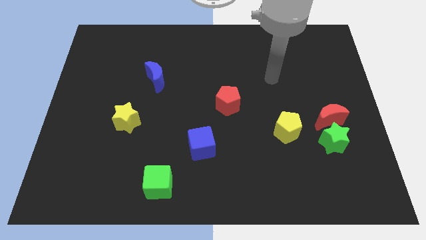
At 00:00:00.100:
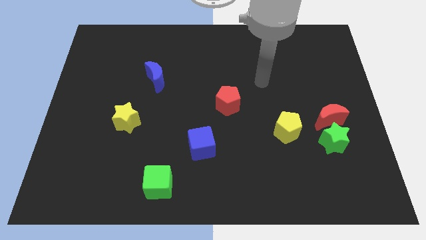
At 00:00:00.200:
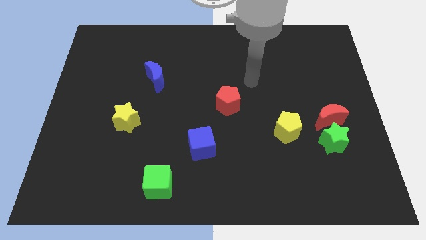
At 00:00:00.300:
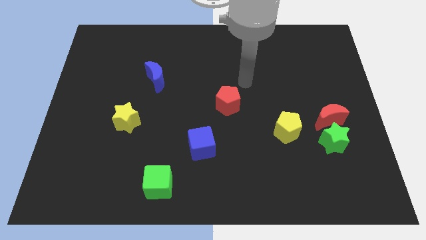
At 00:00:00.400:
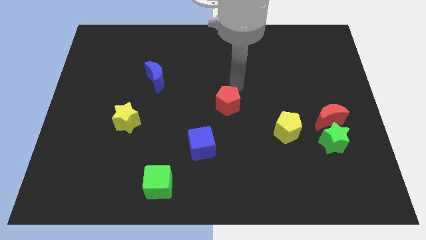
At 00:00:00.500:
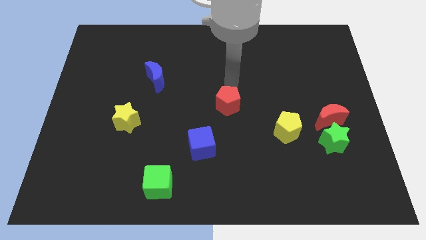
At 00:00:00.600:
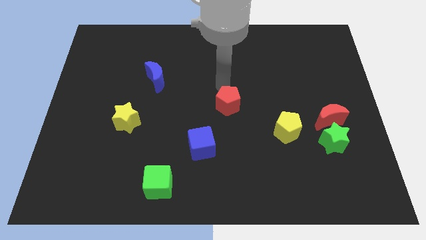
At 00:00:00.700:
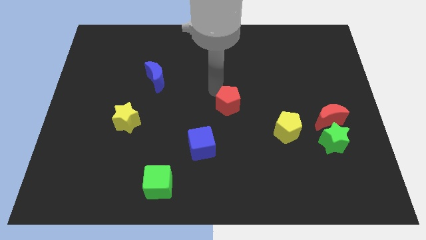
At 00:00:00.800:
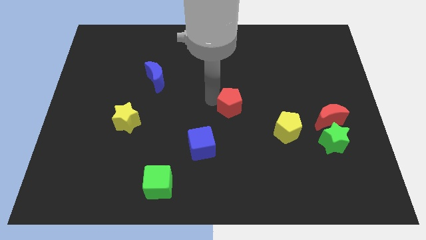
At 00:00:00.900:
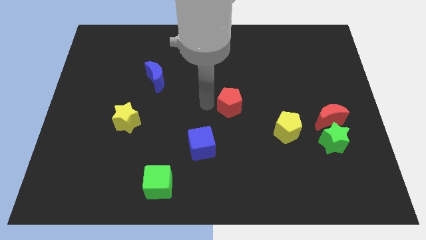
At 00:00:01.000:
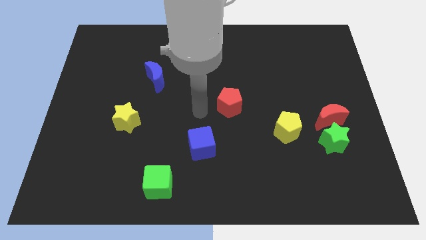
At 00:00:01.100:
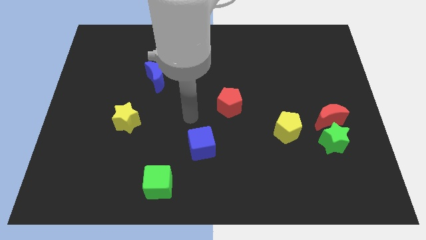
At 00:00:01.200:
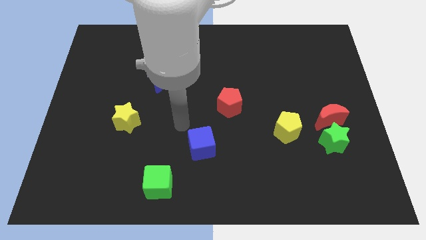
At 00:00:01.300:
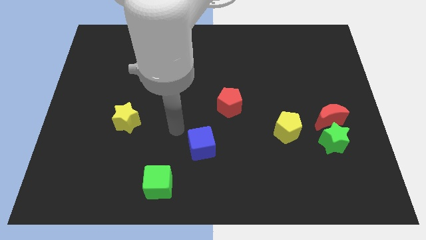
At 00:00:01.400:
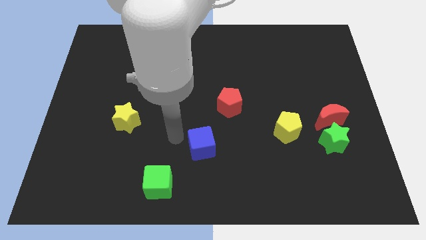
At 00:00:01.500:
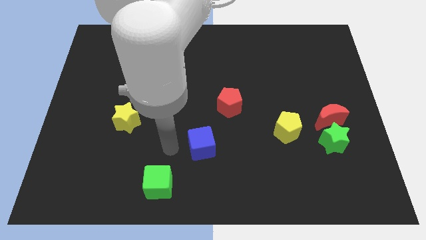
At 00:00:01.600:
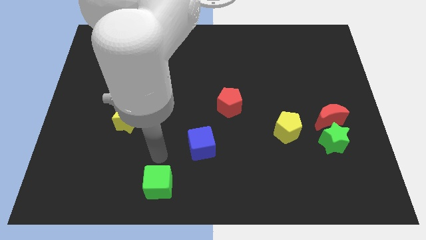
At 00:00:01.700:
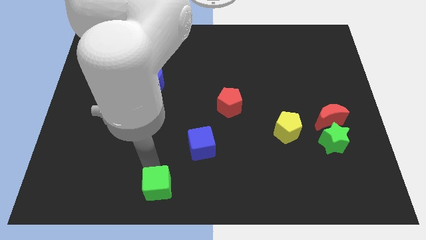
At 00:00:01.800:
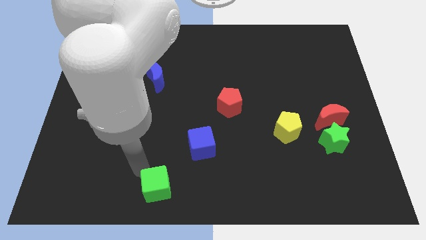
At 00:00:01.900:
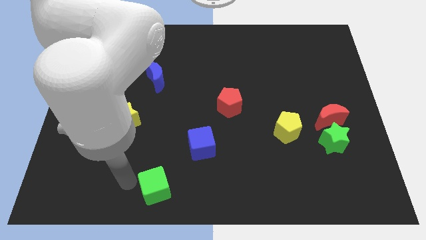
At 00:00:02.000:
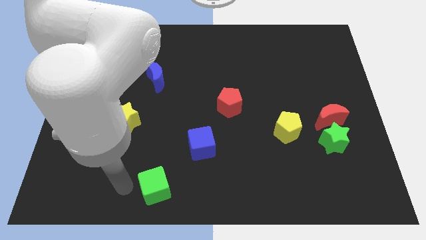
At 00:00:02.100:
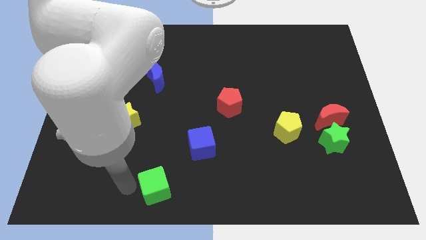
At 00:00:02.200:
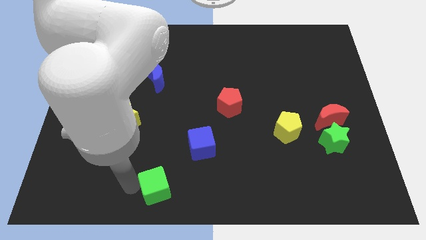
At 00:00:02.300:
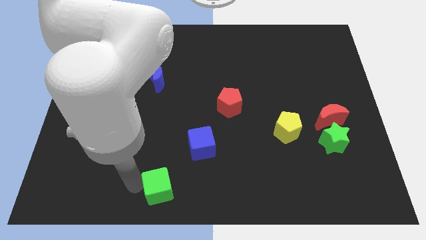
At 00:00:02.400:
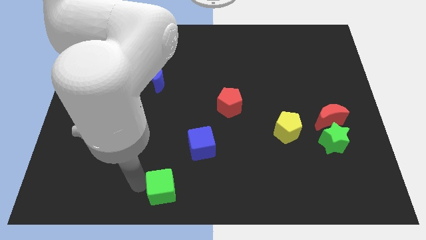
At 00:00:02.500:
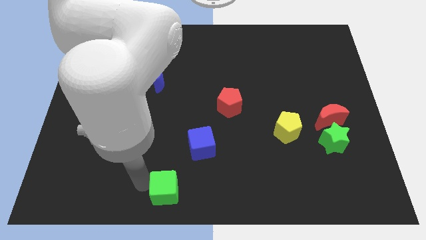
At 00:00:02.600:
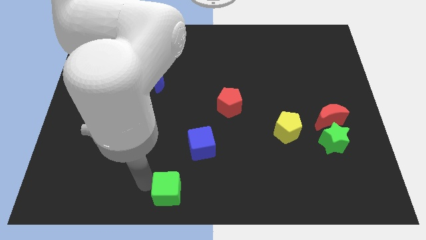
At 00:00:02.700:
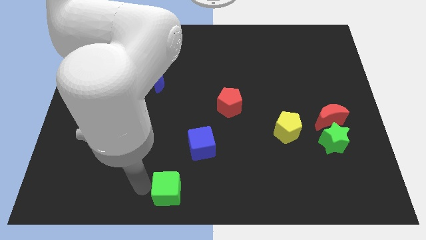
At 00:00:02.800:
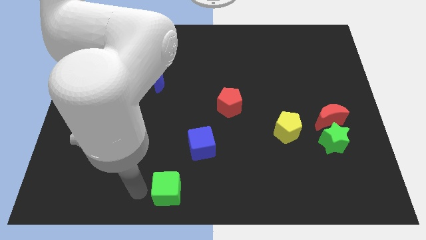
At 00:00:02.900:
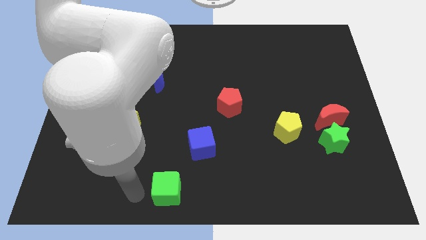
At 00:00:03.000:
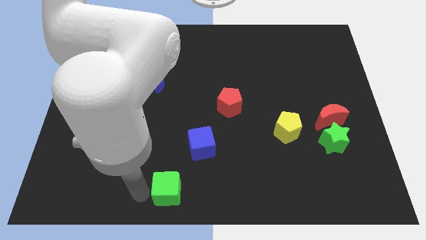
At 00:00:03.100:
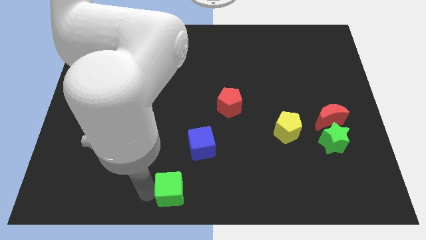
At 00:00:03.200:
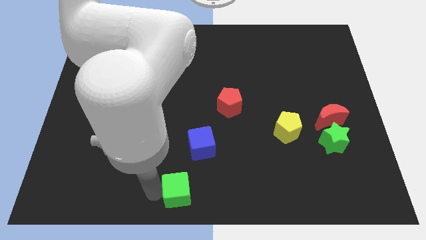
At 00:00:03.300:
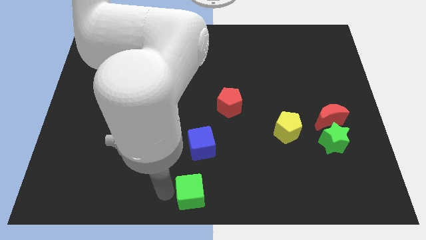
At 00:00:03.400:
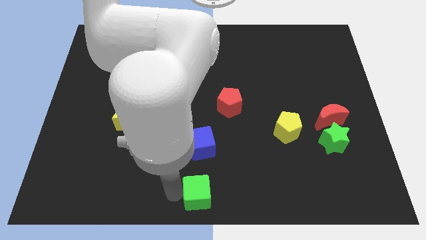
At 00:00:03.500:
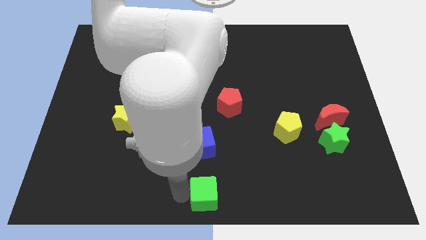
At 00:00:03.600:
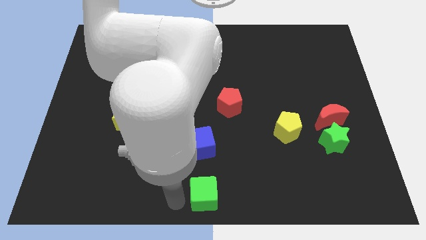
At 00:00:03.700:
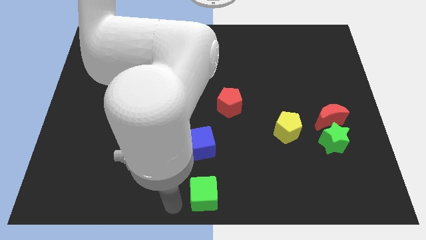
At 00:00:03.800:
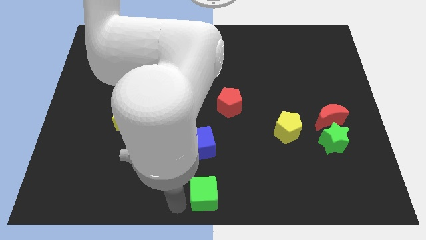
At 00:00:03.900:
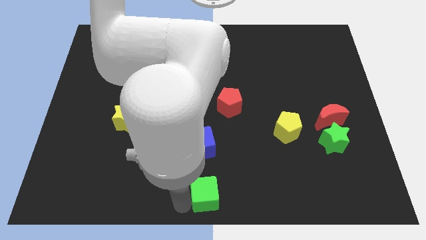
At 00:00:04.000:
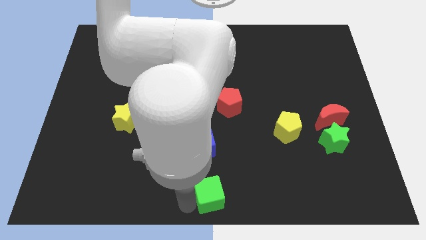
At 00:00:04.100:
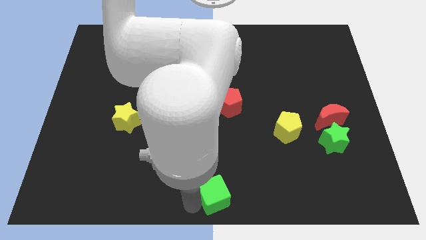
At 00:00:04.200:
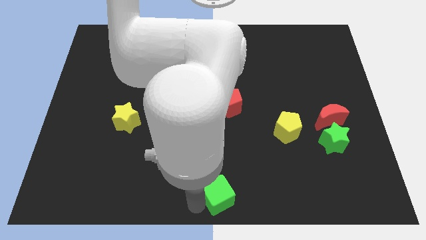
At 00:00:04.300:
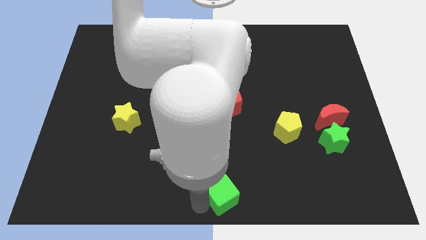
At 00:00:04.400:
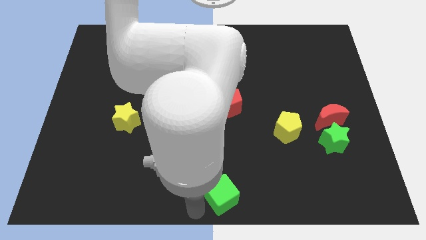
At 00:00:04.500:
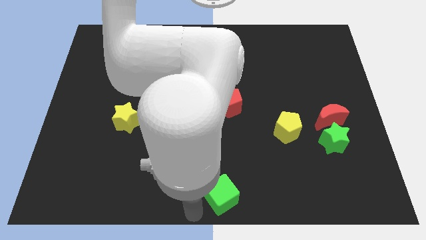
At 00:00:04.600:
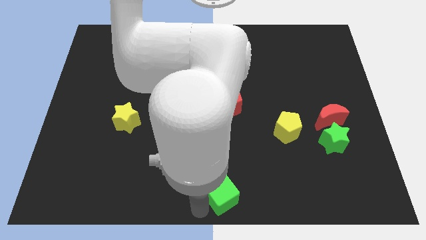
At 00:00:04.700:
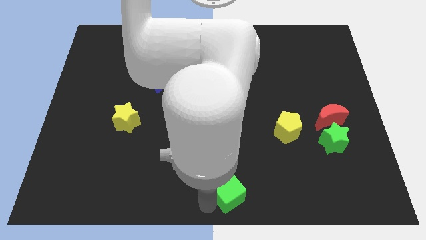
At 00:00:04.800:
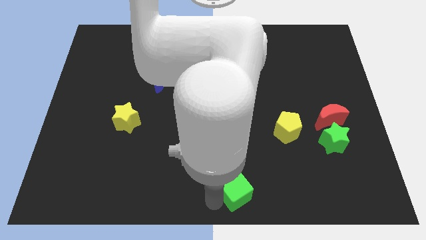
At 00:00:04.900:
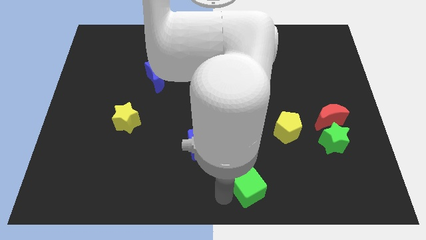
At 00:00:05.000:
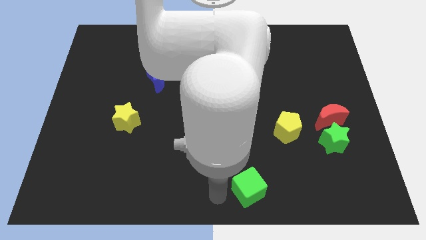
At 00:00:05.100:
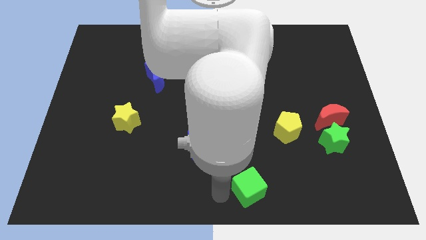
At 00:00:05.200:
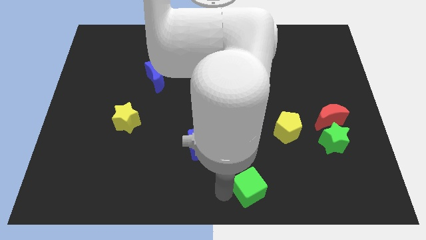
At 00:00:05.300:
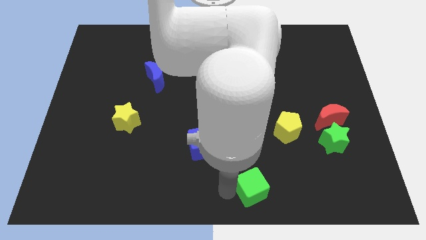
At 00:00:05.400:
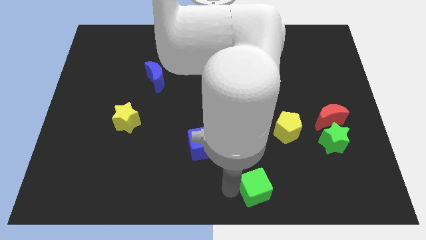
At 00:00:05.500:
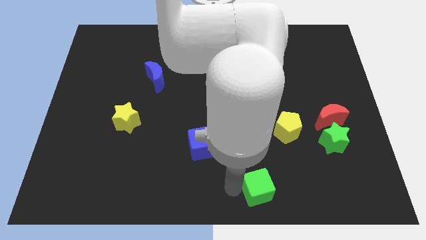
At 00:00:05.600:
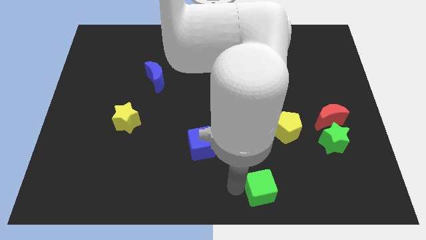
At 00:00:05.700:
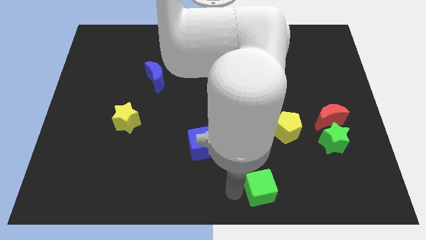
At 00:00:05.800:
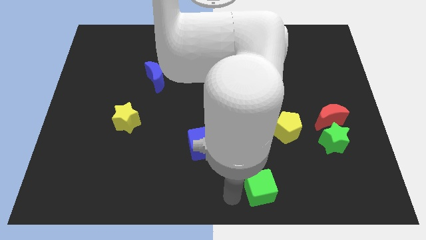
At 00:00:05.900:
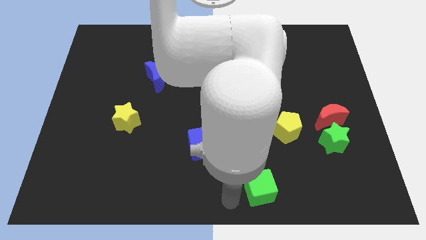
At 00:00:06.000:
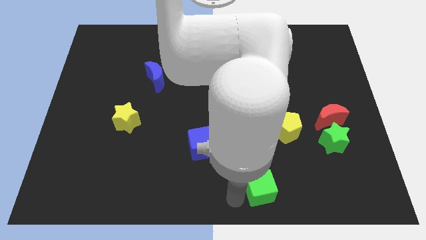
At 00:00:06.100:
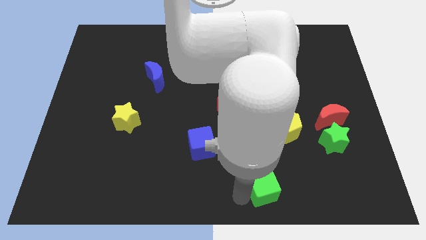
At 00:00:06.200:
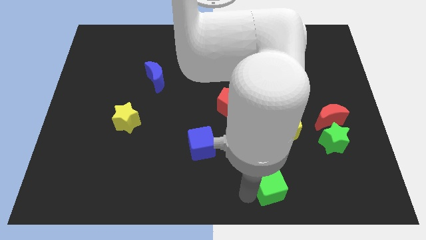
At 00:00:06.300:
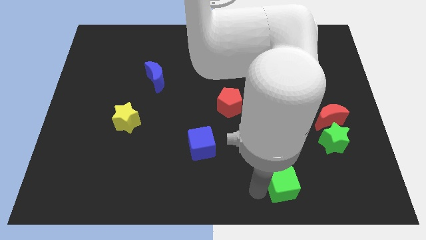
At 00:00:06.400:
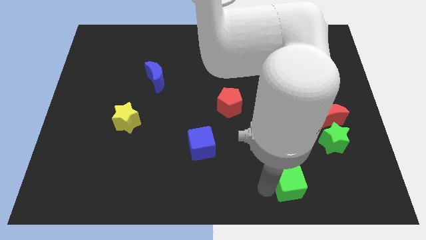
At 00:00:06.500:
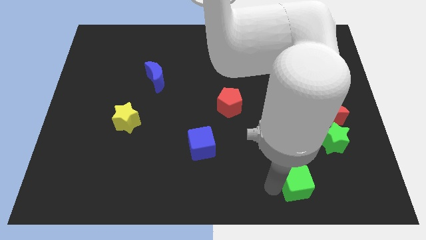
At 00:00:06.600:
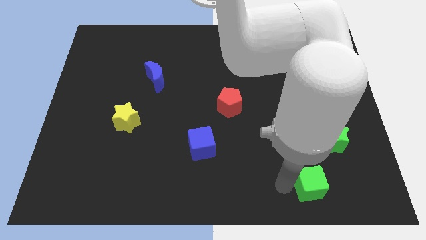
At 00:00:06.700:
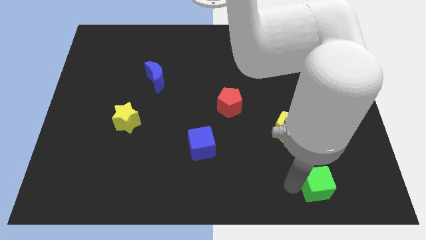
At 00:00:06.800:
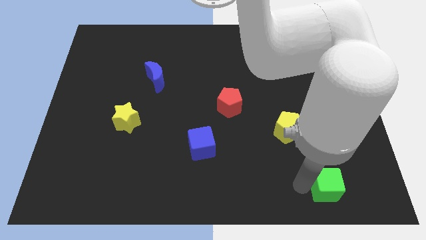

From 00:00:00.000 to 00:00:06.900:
push the green cube below the green star
